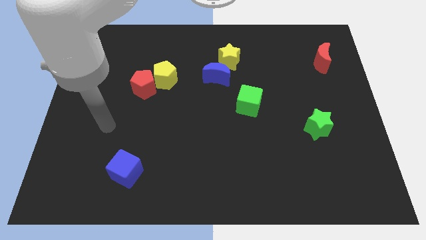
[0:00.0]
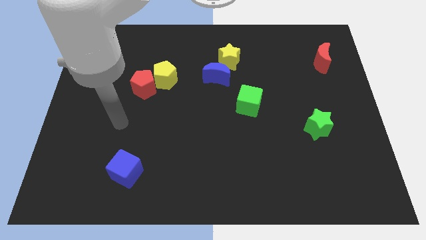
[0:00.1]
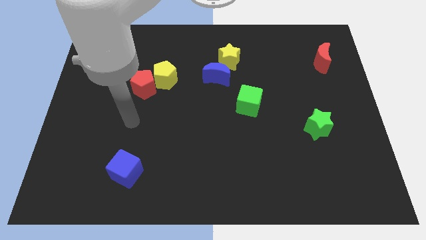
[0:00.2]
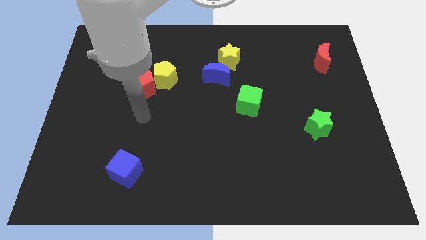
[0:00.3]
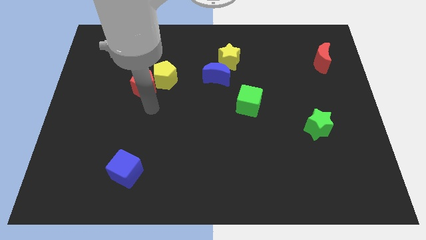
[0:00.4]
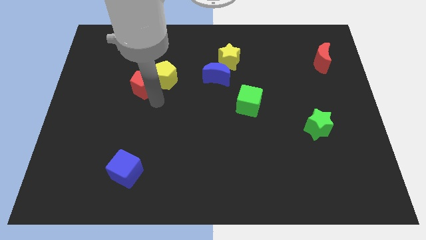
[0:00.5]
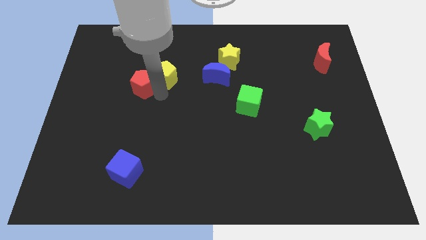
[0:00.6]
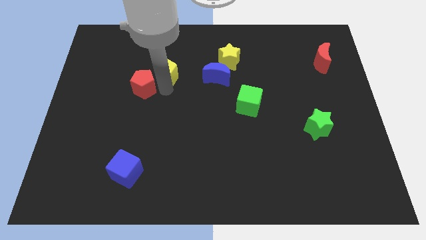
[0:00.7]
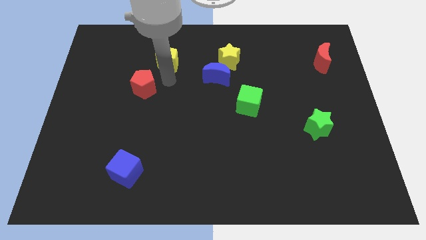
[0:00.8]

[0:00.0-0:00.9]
move the red pentagon away from the yellow pentagon

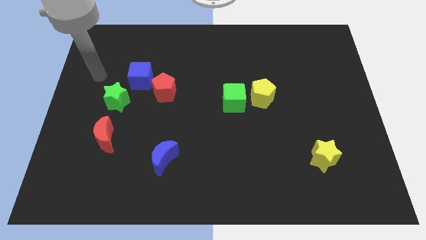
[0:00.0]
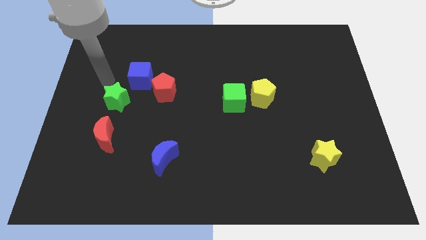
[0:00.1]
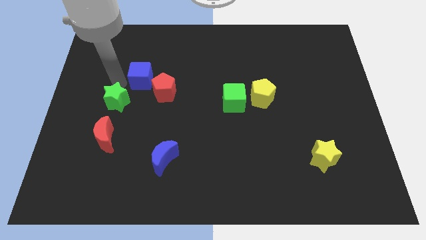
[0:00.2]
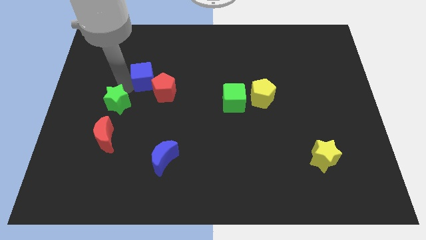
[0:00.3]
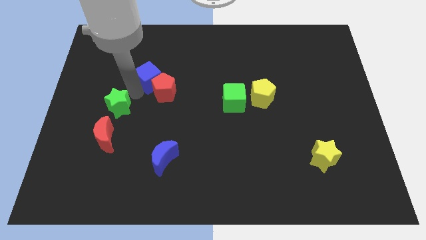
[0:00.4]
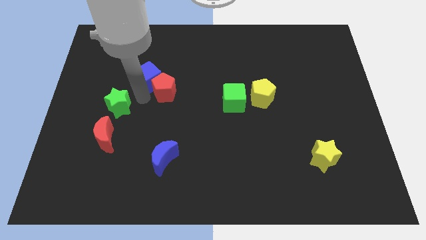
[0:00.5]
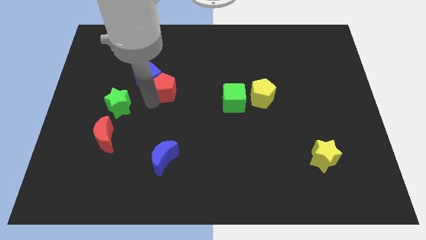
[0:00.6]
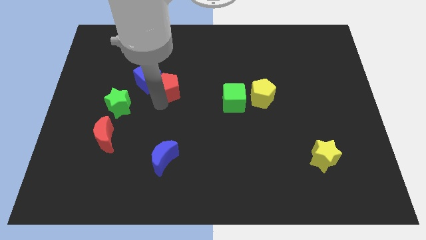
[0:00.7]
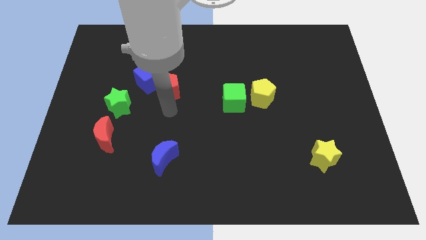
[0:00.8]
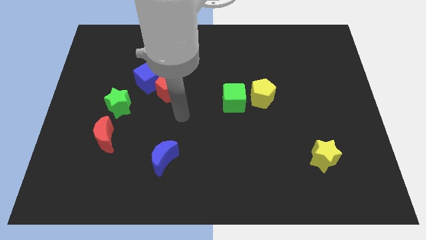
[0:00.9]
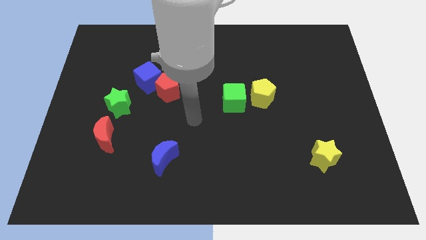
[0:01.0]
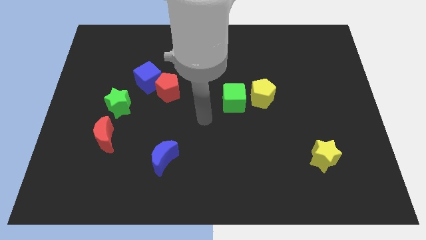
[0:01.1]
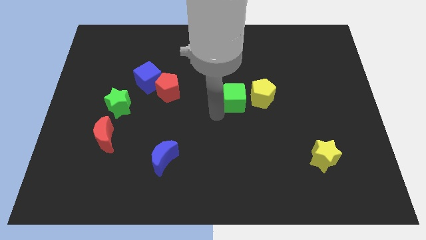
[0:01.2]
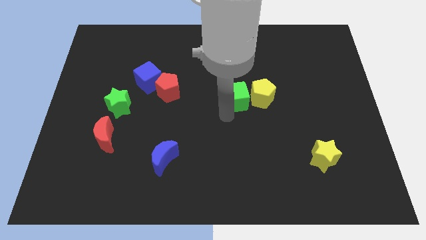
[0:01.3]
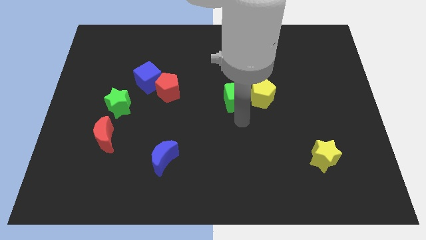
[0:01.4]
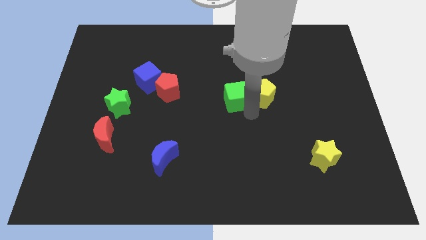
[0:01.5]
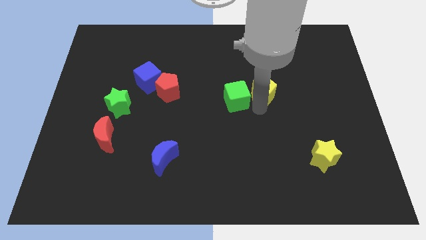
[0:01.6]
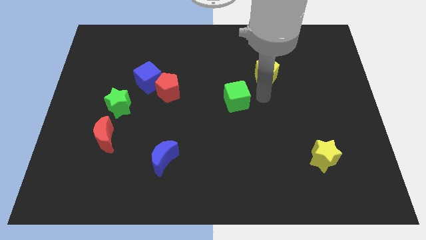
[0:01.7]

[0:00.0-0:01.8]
pull the green cube apart from the yellow pentagon

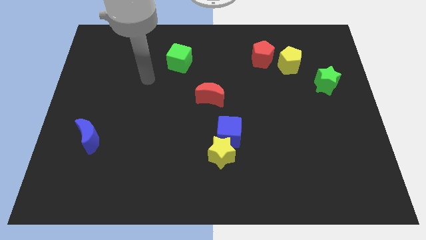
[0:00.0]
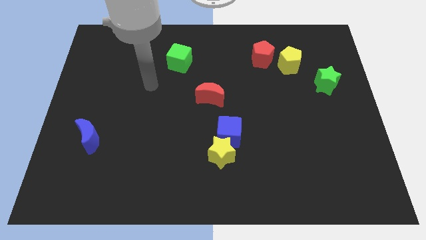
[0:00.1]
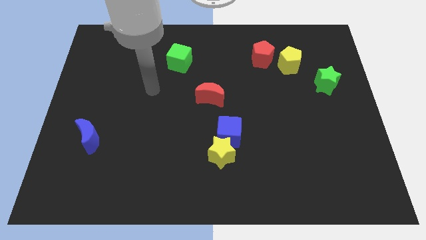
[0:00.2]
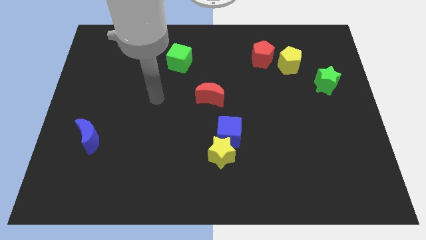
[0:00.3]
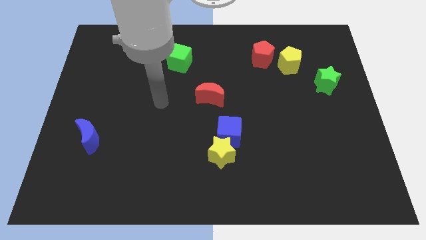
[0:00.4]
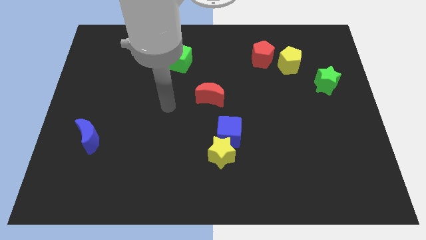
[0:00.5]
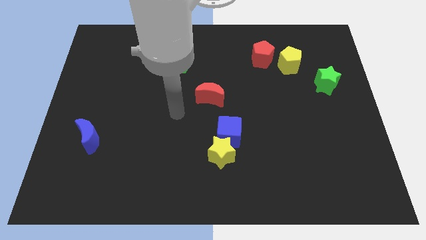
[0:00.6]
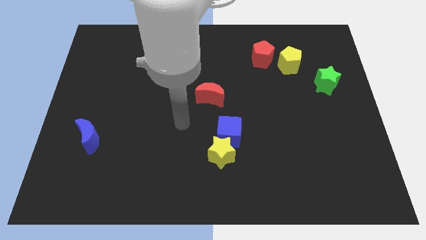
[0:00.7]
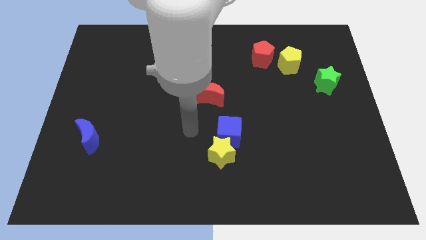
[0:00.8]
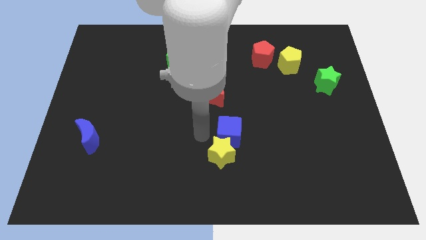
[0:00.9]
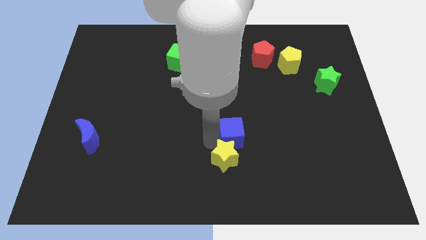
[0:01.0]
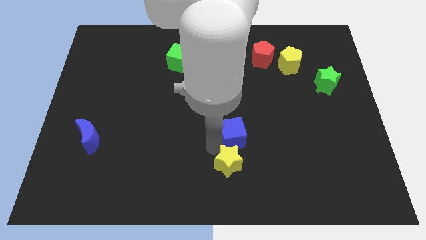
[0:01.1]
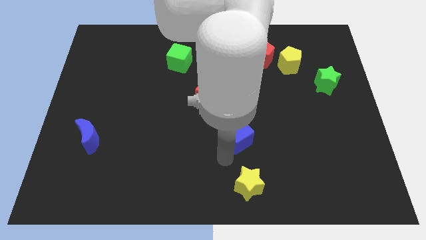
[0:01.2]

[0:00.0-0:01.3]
move the blue cube away from the yellow star

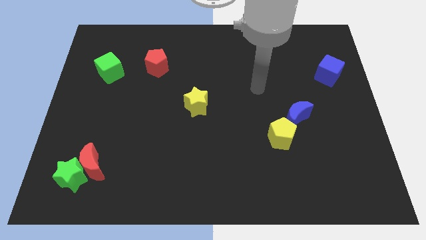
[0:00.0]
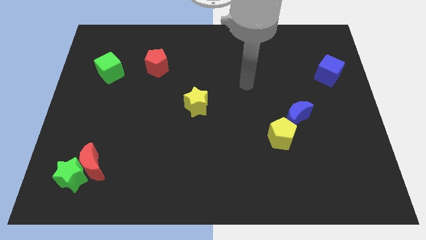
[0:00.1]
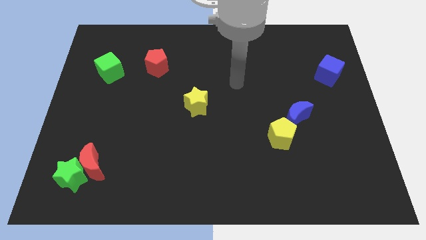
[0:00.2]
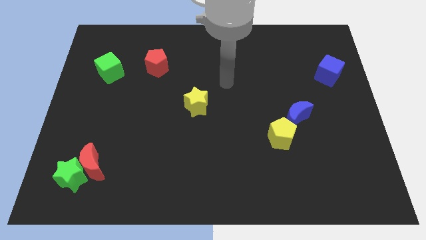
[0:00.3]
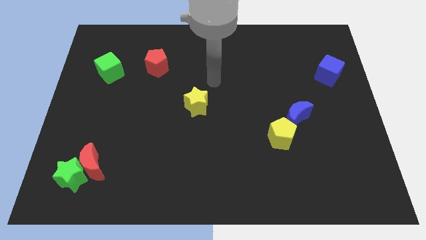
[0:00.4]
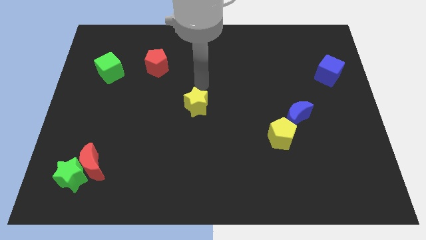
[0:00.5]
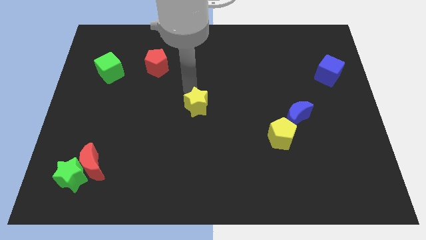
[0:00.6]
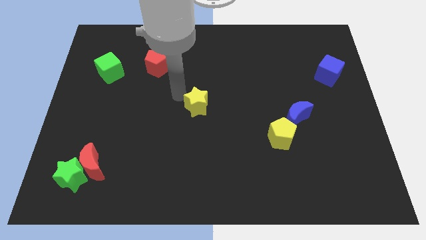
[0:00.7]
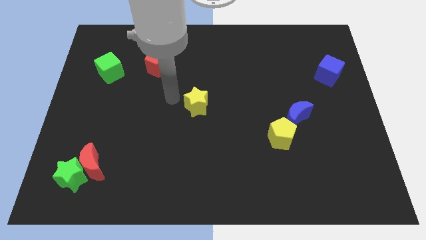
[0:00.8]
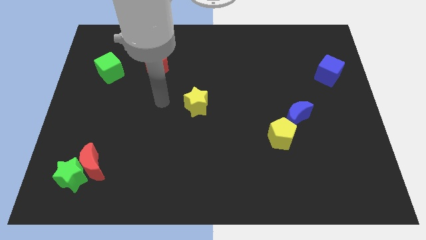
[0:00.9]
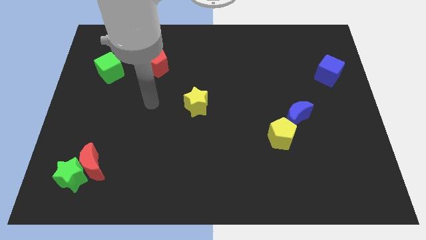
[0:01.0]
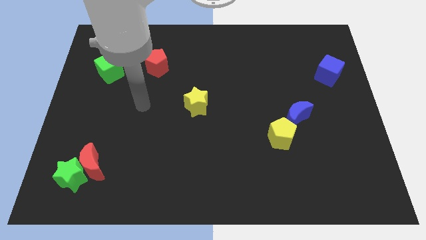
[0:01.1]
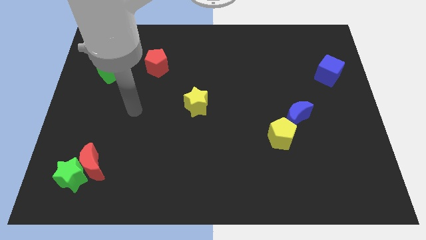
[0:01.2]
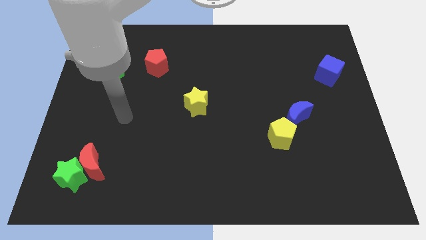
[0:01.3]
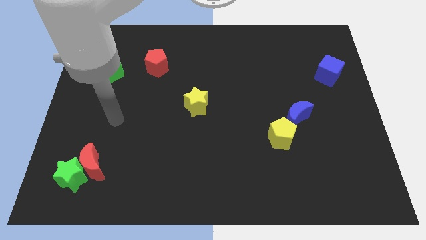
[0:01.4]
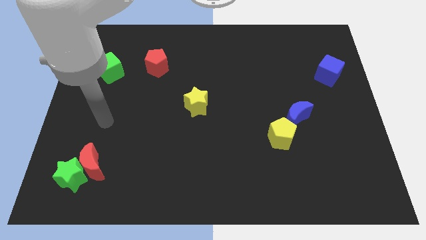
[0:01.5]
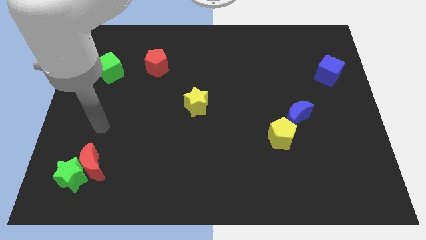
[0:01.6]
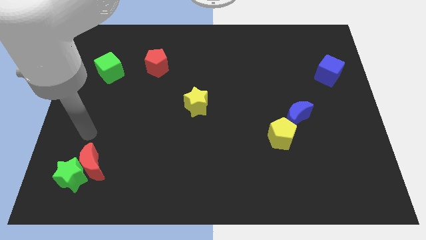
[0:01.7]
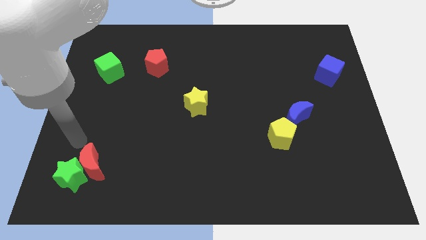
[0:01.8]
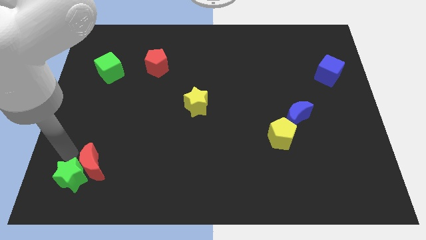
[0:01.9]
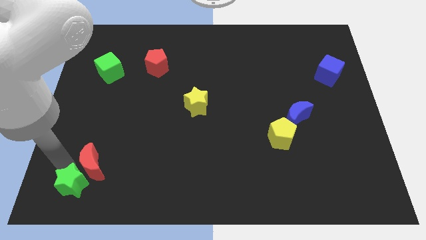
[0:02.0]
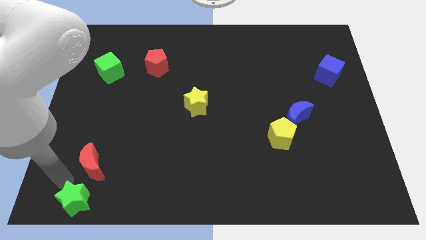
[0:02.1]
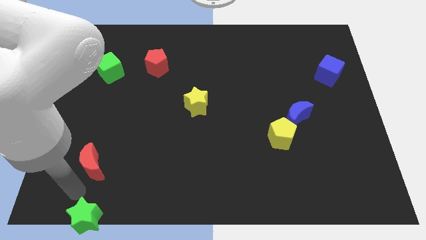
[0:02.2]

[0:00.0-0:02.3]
pull the red moon apart from the green star

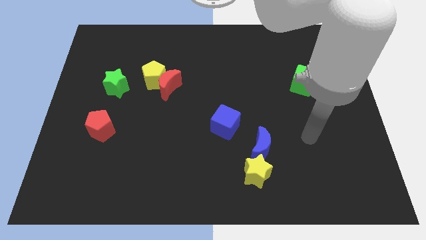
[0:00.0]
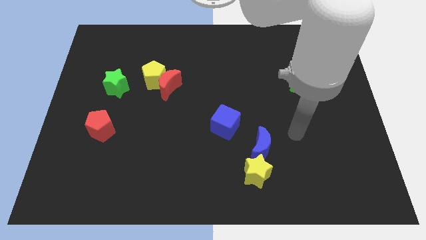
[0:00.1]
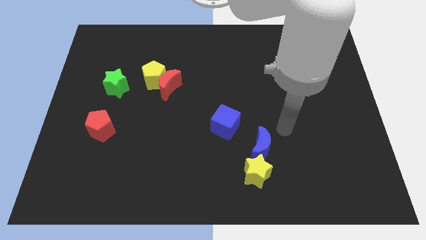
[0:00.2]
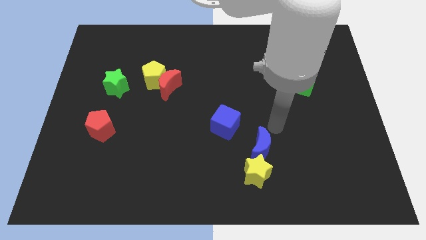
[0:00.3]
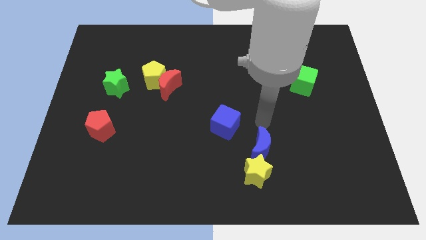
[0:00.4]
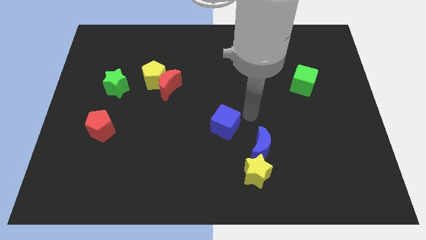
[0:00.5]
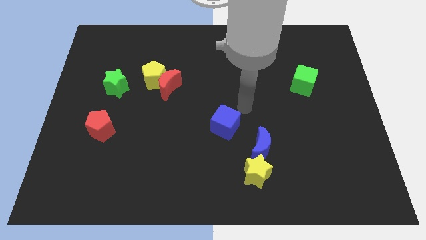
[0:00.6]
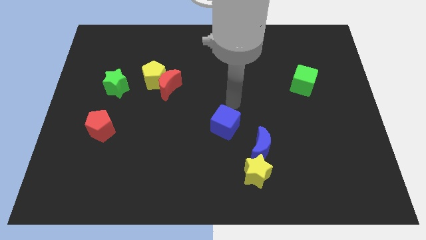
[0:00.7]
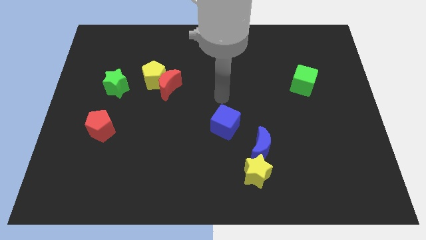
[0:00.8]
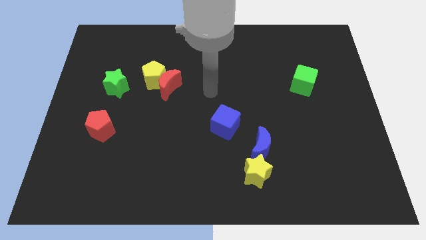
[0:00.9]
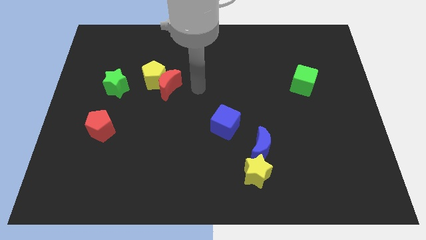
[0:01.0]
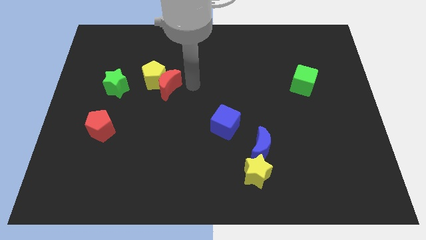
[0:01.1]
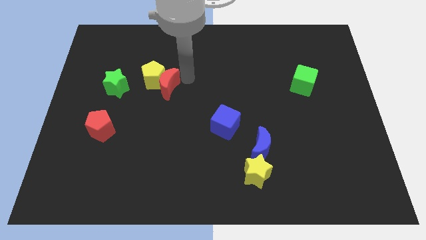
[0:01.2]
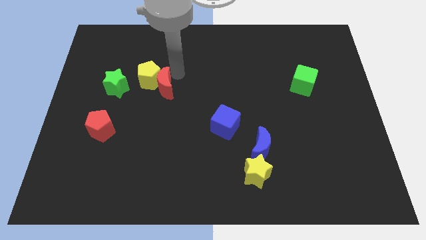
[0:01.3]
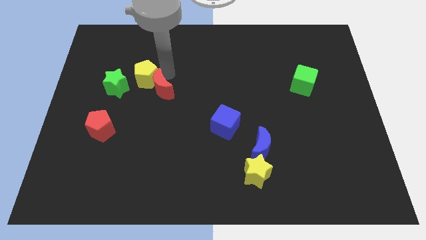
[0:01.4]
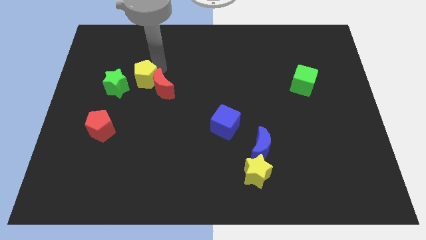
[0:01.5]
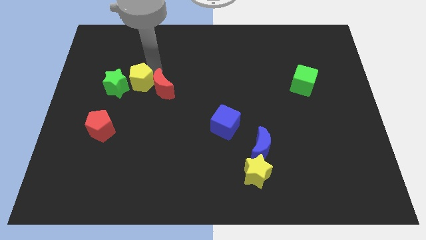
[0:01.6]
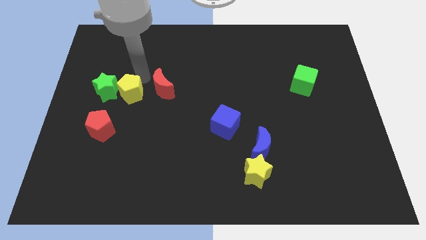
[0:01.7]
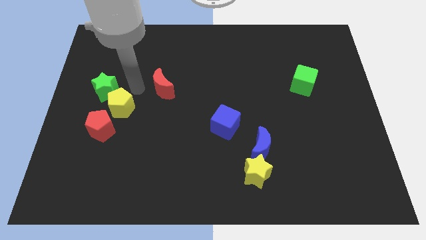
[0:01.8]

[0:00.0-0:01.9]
move the red moon away from the yellow pentagon

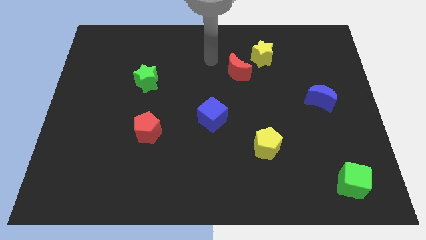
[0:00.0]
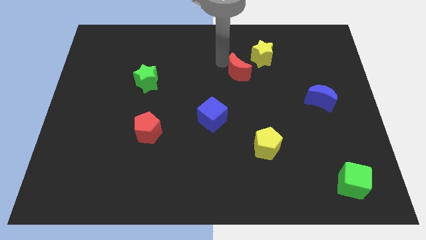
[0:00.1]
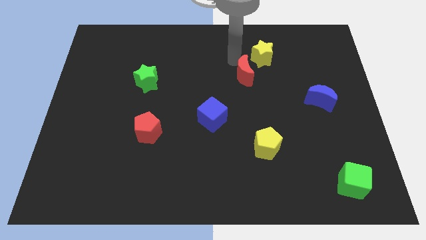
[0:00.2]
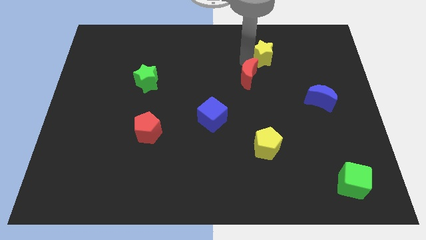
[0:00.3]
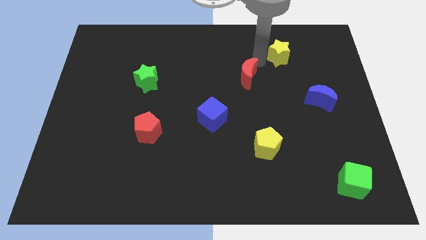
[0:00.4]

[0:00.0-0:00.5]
separate the red moon from the yellow star

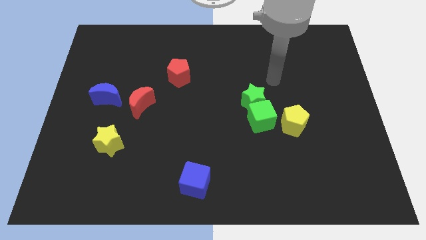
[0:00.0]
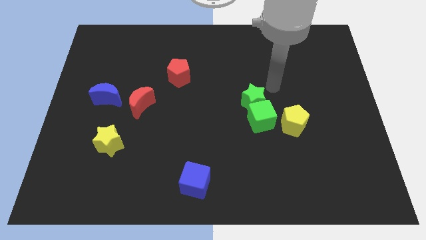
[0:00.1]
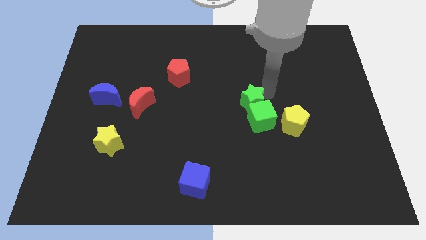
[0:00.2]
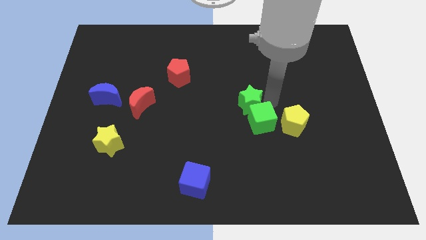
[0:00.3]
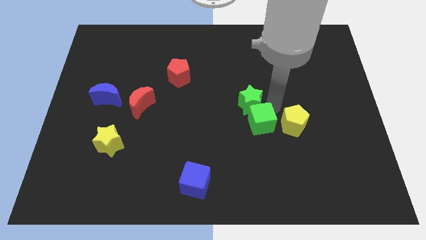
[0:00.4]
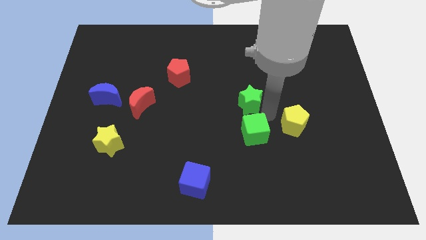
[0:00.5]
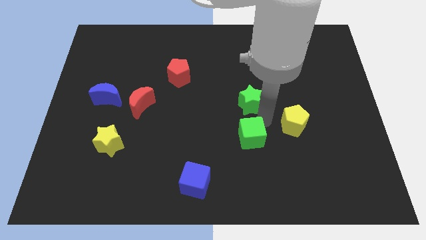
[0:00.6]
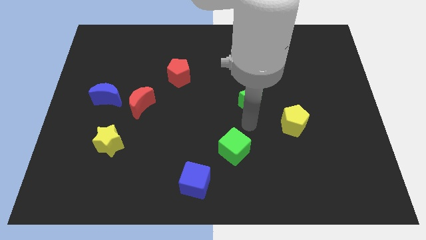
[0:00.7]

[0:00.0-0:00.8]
move the green star away from the green cube
